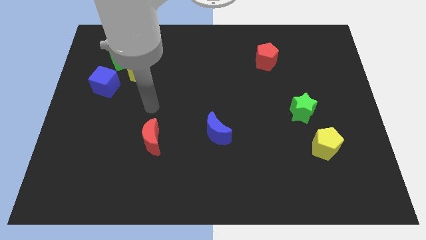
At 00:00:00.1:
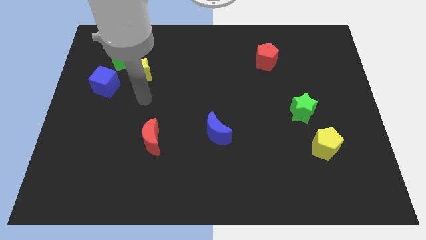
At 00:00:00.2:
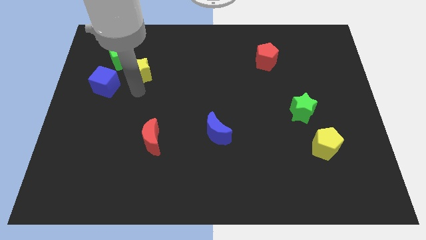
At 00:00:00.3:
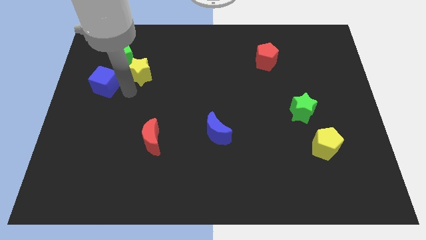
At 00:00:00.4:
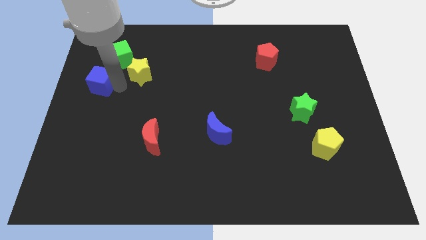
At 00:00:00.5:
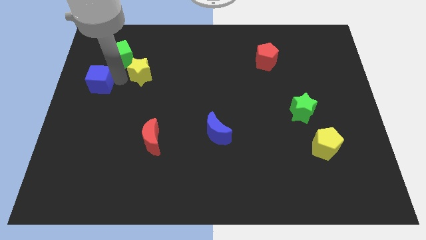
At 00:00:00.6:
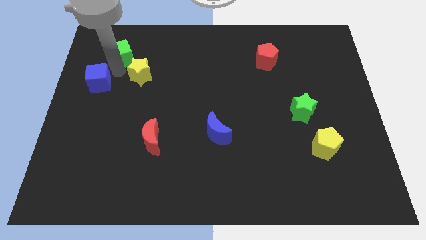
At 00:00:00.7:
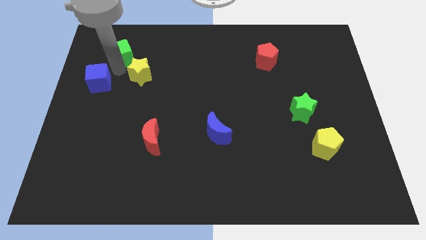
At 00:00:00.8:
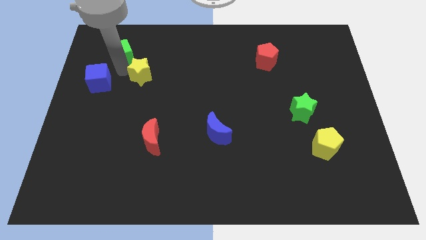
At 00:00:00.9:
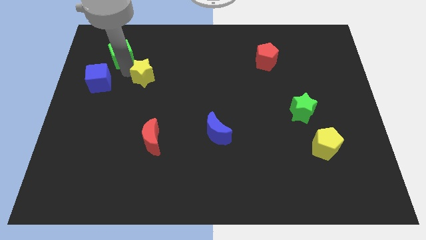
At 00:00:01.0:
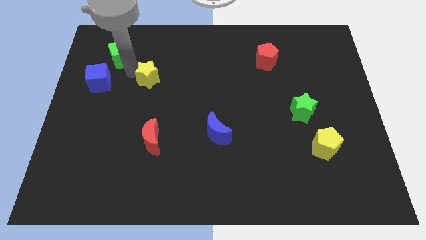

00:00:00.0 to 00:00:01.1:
move the yellow star away from the green cube and blue cube

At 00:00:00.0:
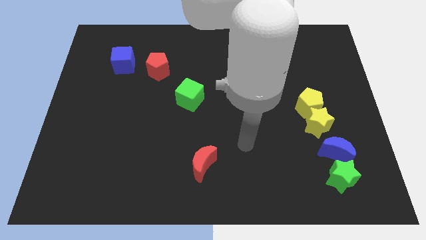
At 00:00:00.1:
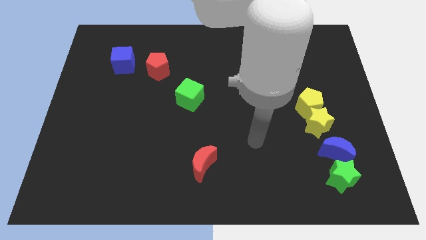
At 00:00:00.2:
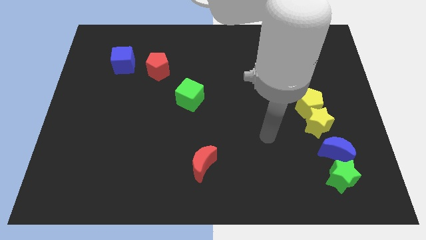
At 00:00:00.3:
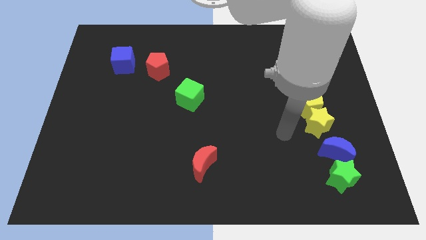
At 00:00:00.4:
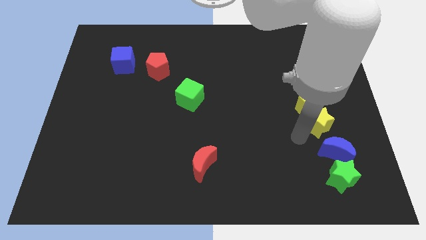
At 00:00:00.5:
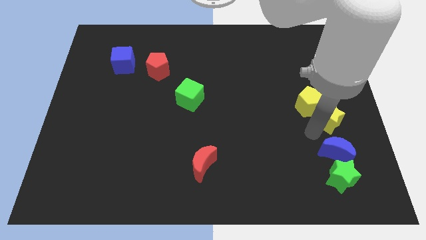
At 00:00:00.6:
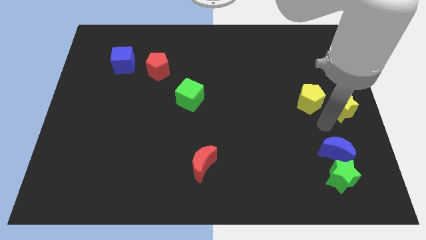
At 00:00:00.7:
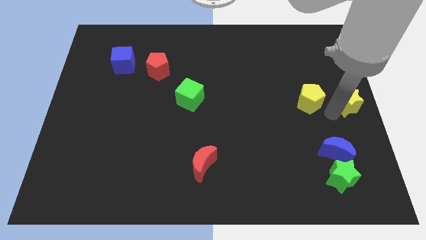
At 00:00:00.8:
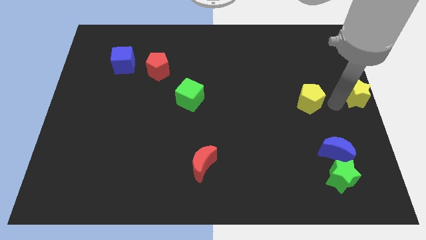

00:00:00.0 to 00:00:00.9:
pull the yellow pentagon apart from the yellow star

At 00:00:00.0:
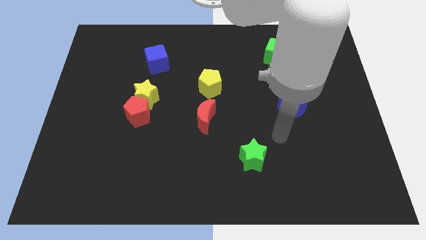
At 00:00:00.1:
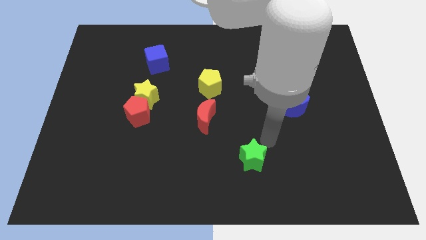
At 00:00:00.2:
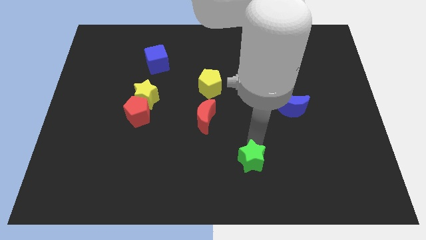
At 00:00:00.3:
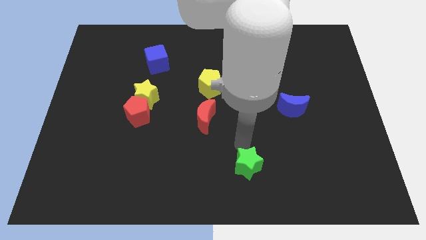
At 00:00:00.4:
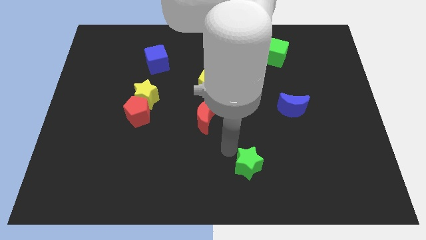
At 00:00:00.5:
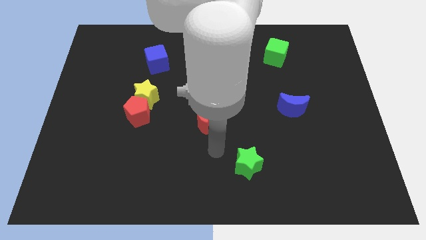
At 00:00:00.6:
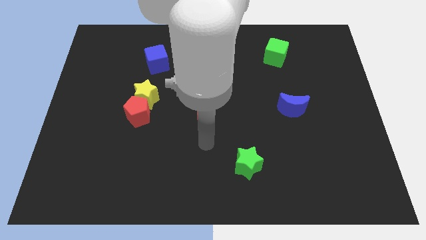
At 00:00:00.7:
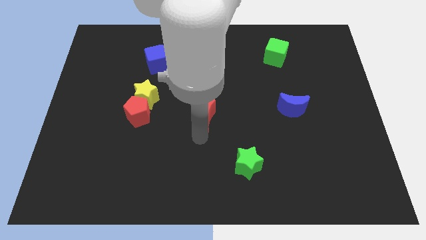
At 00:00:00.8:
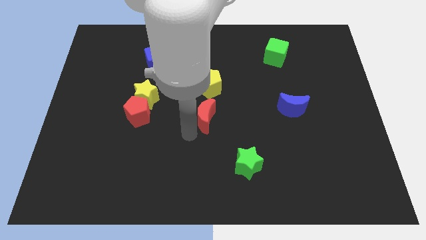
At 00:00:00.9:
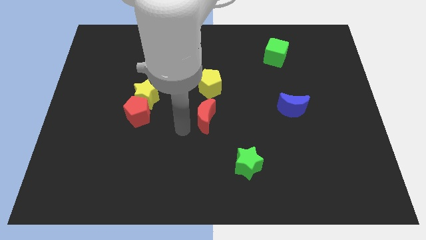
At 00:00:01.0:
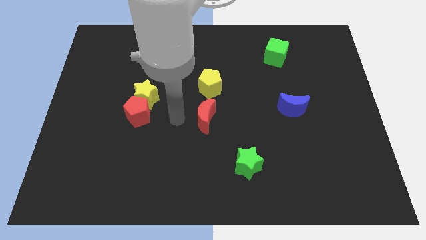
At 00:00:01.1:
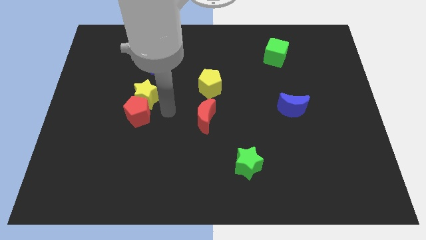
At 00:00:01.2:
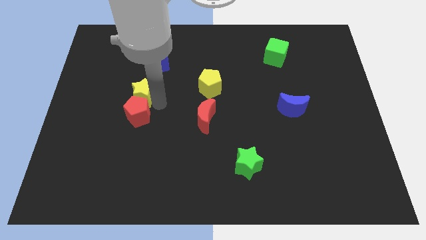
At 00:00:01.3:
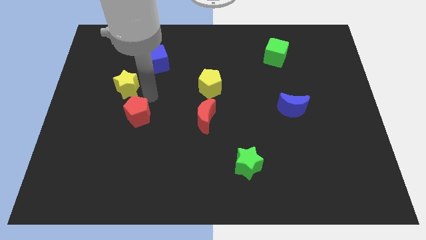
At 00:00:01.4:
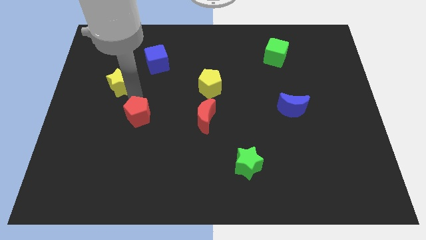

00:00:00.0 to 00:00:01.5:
move the red pentagon away from the yellow star

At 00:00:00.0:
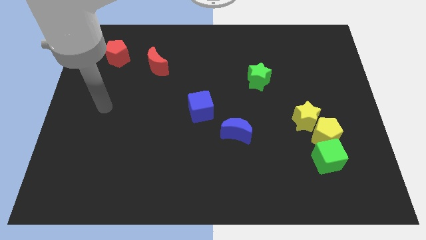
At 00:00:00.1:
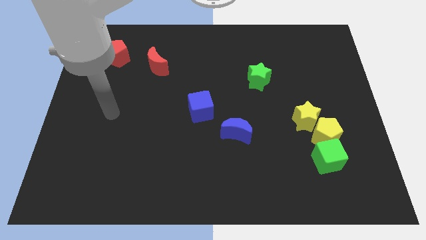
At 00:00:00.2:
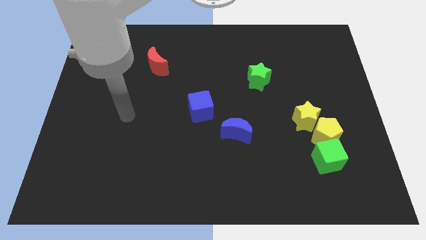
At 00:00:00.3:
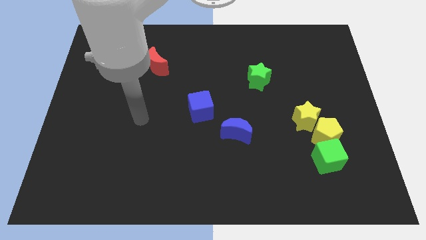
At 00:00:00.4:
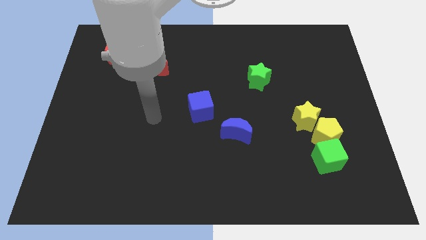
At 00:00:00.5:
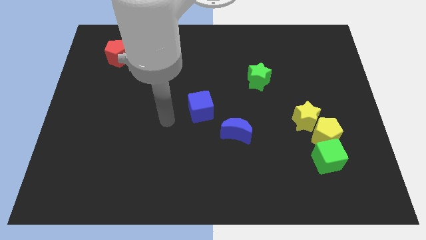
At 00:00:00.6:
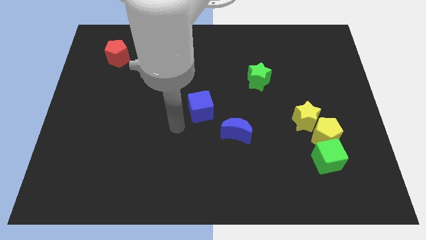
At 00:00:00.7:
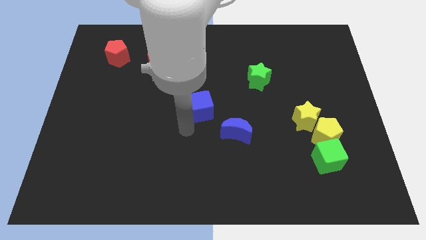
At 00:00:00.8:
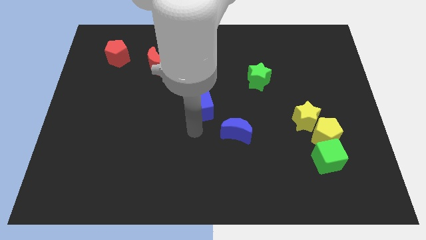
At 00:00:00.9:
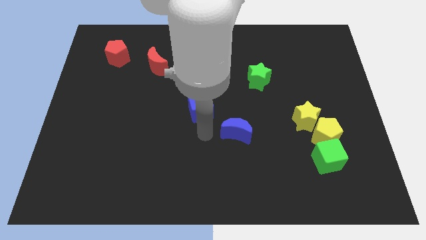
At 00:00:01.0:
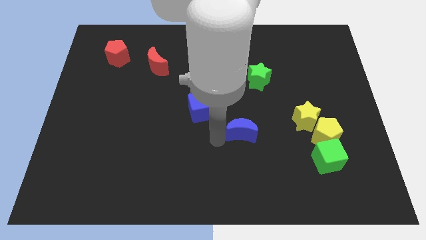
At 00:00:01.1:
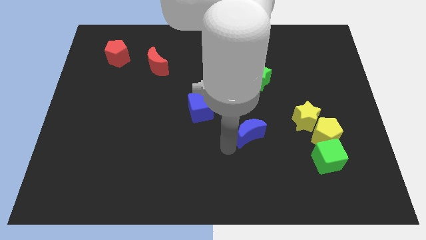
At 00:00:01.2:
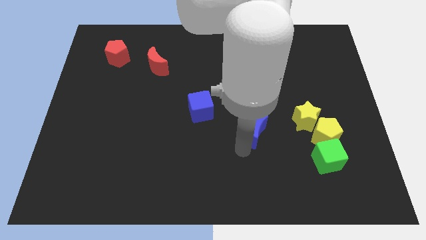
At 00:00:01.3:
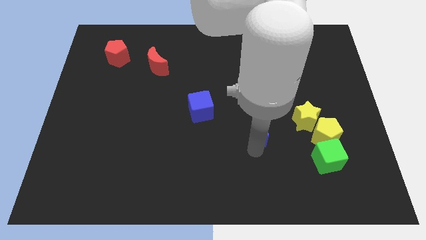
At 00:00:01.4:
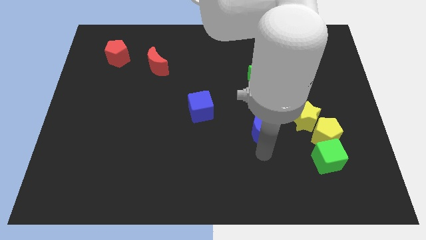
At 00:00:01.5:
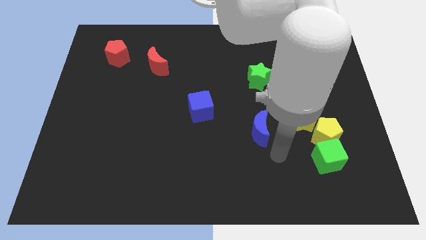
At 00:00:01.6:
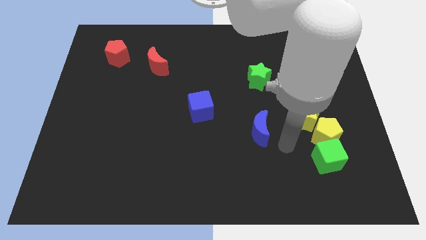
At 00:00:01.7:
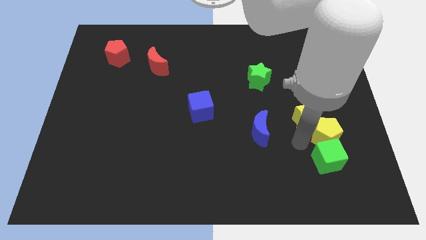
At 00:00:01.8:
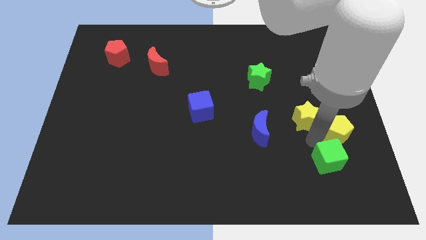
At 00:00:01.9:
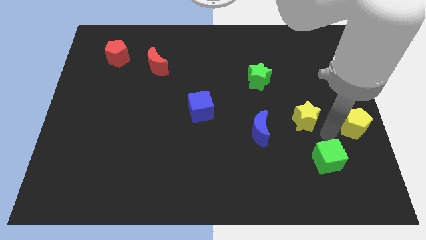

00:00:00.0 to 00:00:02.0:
move the yellow star away from the yellow pentagon

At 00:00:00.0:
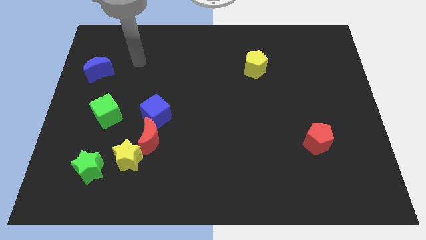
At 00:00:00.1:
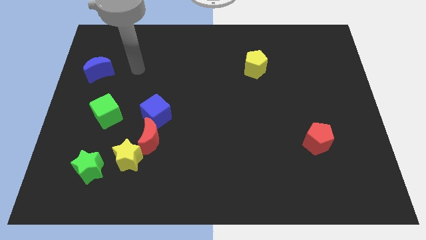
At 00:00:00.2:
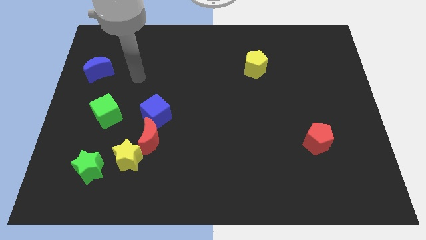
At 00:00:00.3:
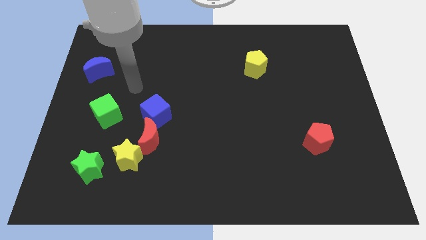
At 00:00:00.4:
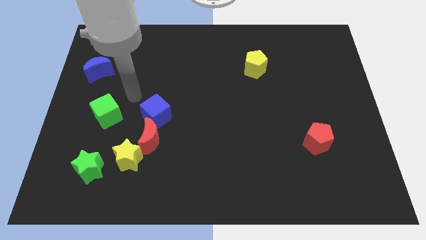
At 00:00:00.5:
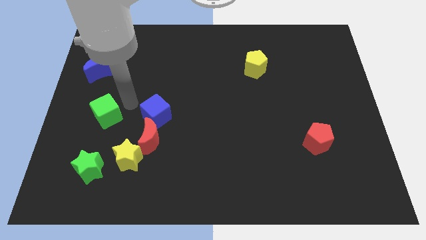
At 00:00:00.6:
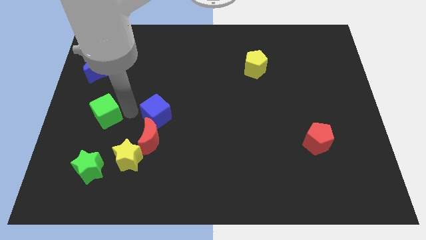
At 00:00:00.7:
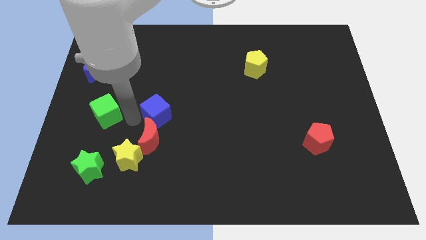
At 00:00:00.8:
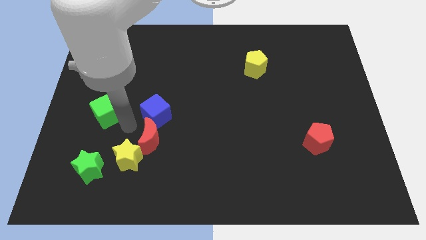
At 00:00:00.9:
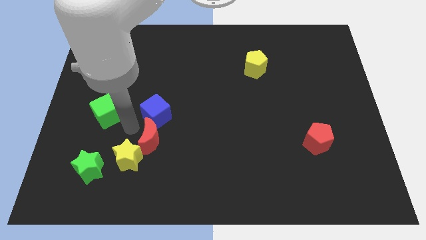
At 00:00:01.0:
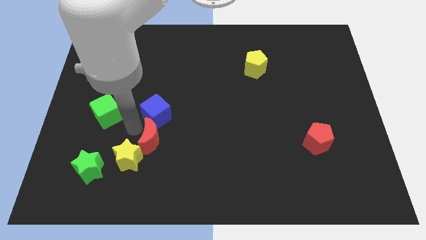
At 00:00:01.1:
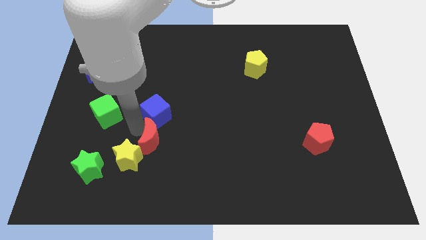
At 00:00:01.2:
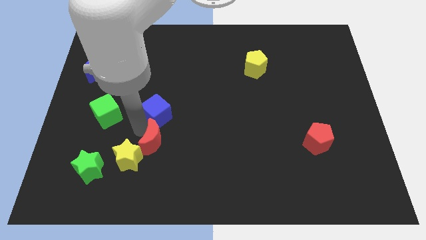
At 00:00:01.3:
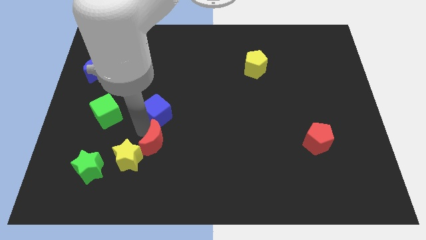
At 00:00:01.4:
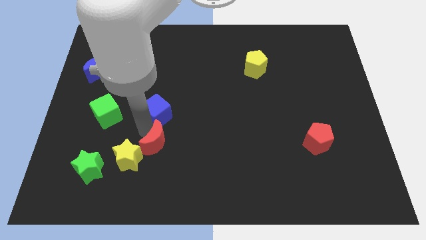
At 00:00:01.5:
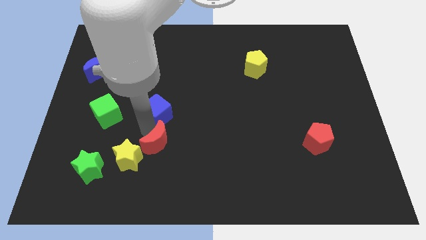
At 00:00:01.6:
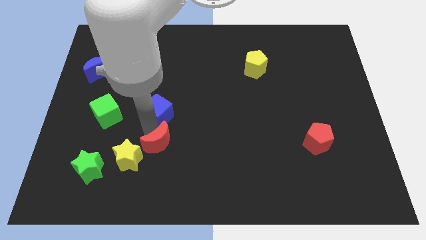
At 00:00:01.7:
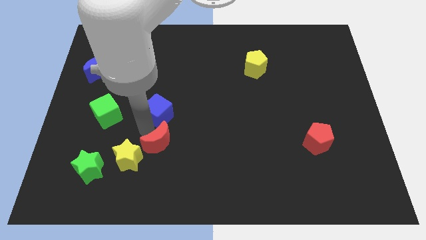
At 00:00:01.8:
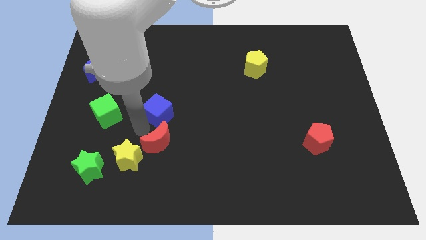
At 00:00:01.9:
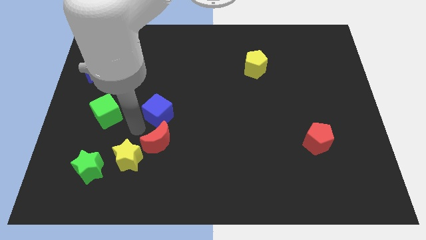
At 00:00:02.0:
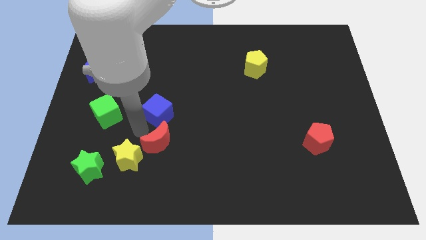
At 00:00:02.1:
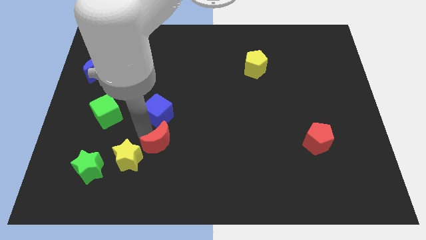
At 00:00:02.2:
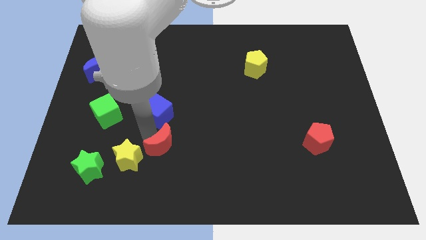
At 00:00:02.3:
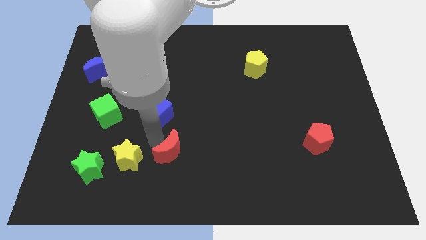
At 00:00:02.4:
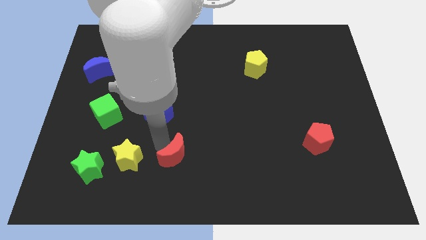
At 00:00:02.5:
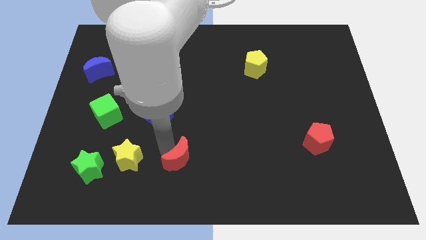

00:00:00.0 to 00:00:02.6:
pull the red moon apart from the yellow star and blue cube

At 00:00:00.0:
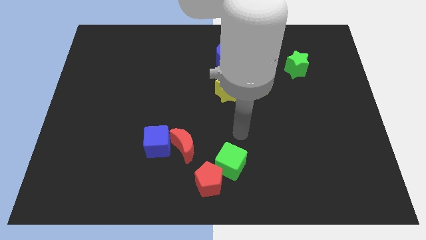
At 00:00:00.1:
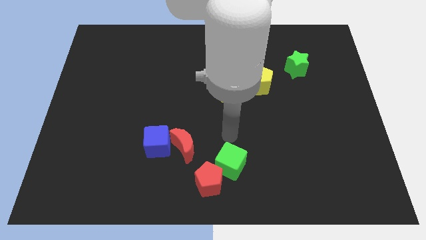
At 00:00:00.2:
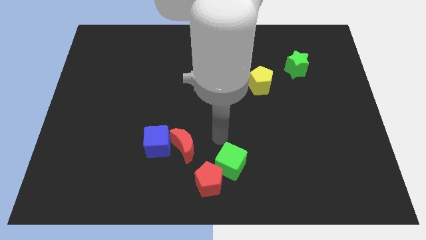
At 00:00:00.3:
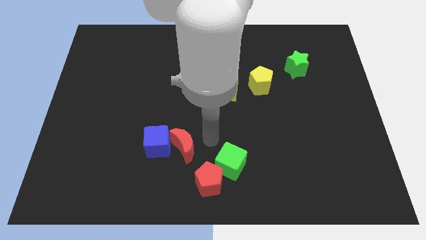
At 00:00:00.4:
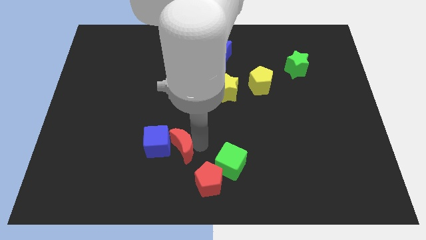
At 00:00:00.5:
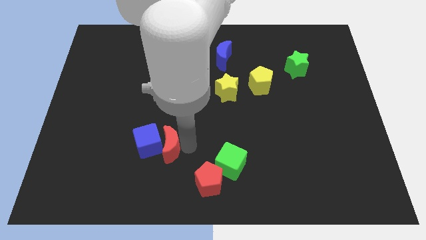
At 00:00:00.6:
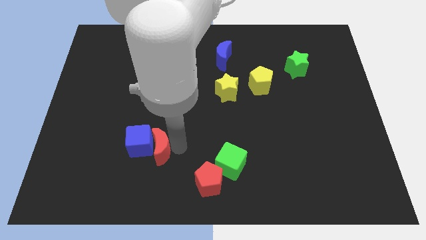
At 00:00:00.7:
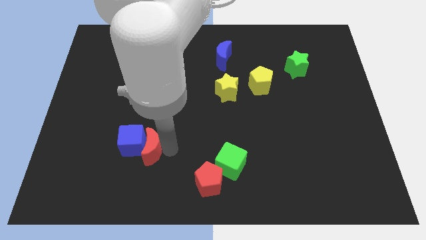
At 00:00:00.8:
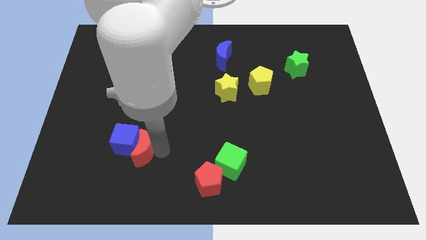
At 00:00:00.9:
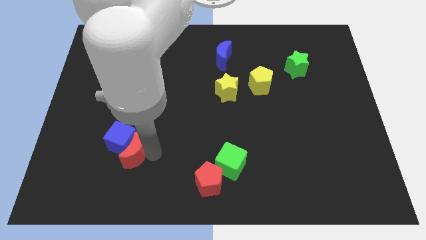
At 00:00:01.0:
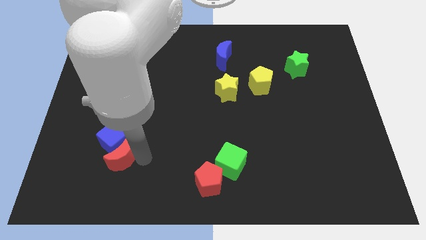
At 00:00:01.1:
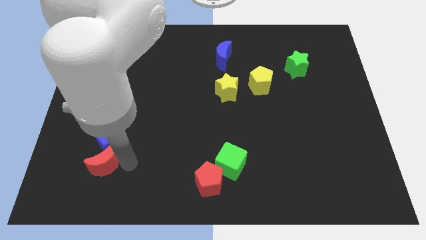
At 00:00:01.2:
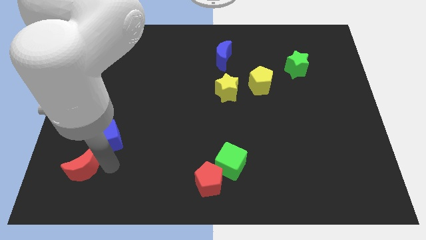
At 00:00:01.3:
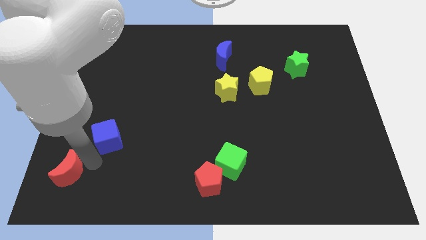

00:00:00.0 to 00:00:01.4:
pull the blue cube apart from the red moon
